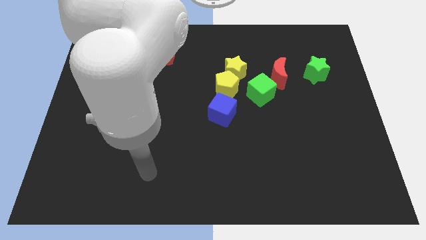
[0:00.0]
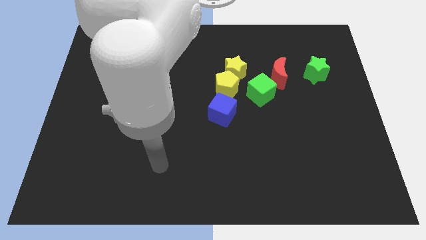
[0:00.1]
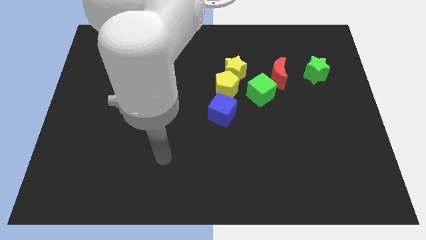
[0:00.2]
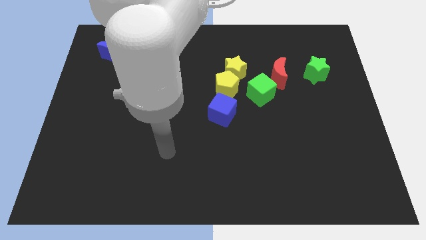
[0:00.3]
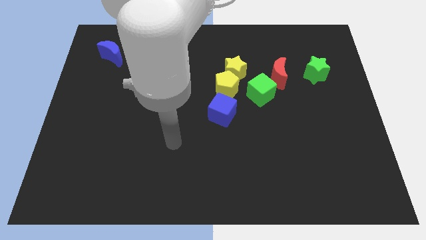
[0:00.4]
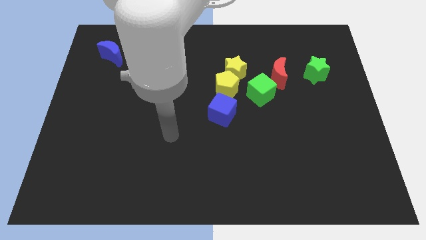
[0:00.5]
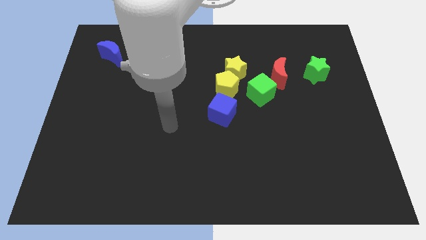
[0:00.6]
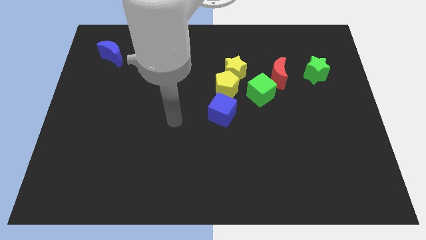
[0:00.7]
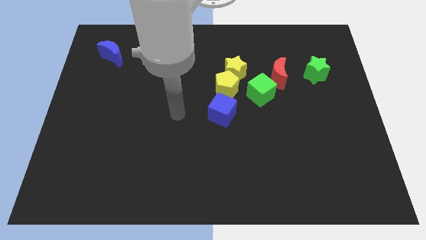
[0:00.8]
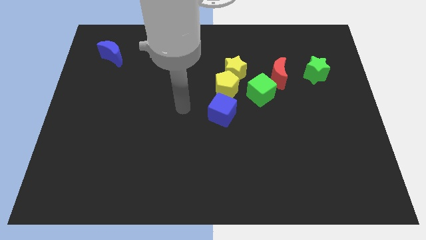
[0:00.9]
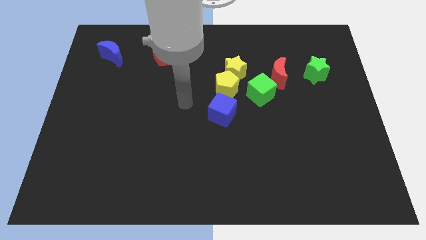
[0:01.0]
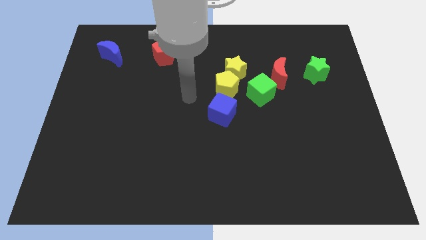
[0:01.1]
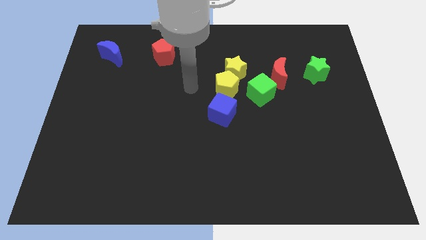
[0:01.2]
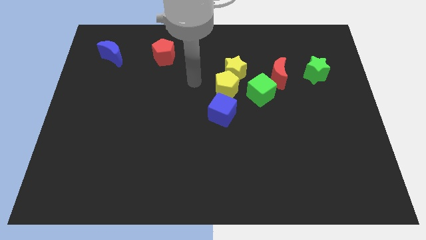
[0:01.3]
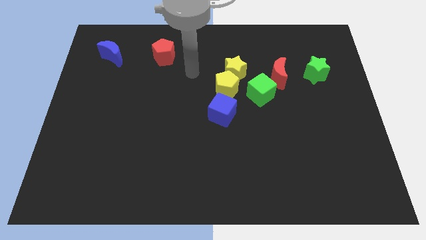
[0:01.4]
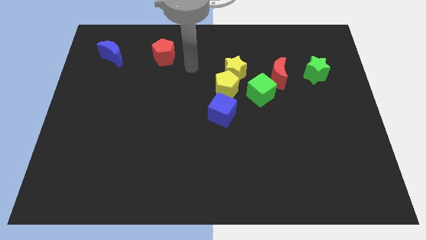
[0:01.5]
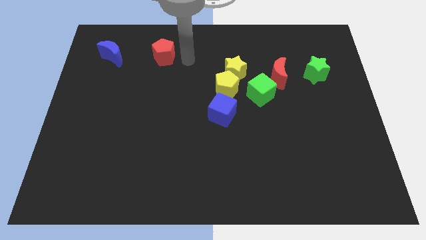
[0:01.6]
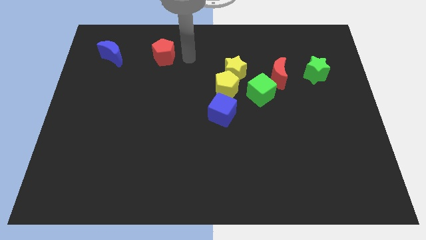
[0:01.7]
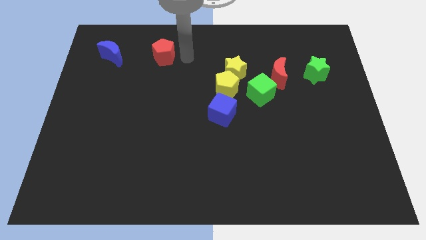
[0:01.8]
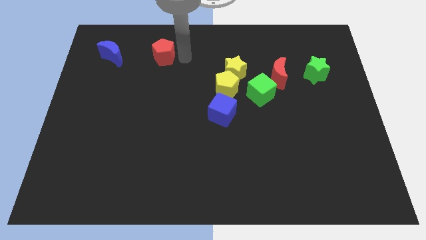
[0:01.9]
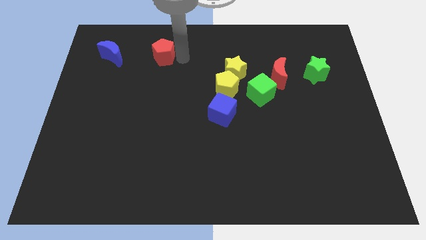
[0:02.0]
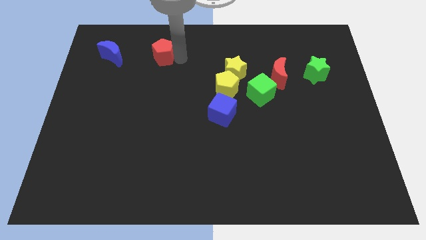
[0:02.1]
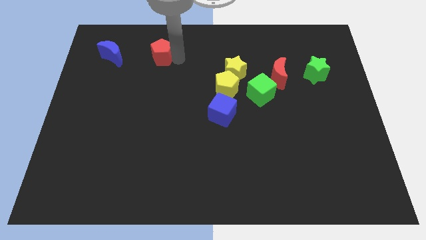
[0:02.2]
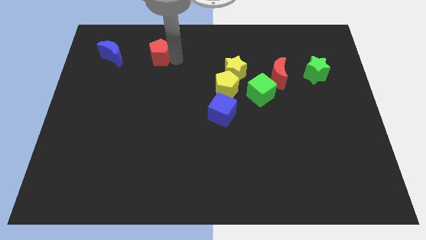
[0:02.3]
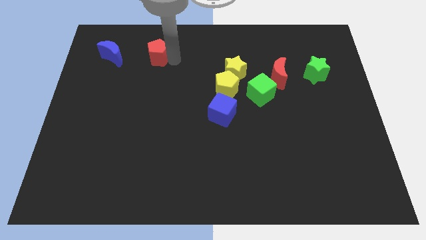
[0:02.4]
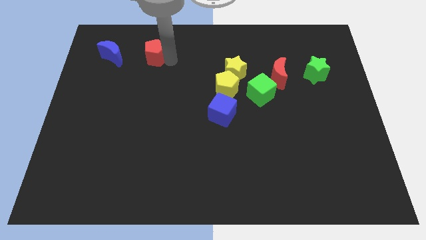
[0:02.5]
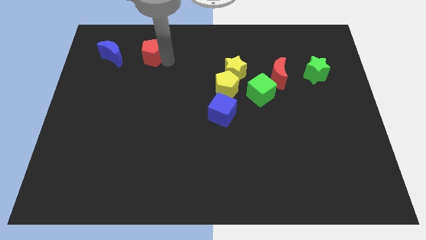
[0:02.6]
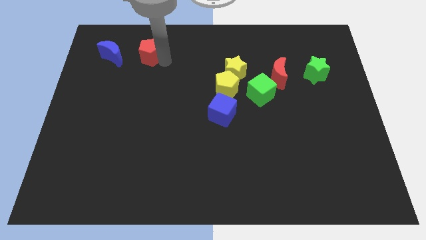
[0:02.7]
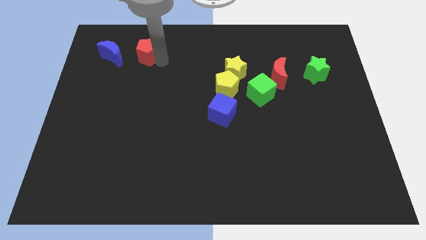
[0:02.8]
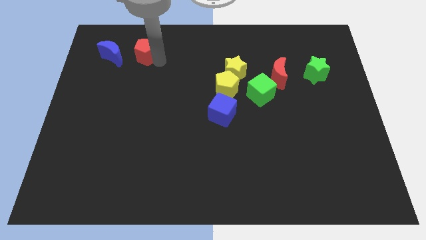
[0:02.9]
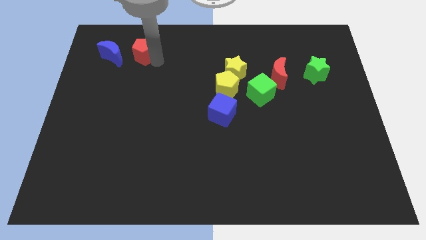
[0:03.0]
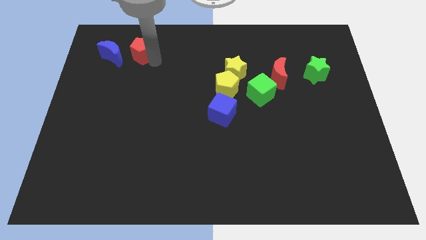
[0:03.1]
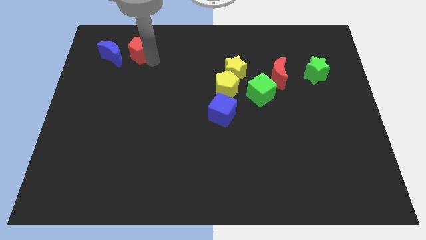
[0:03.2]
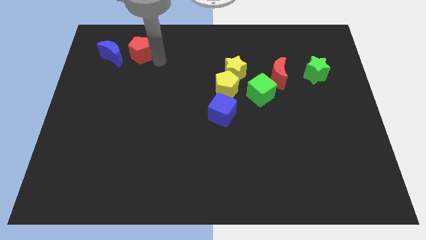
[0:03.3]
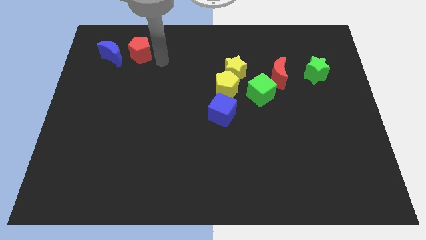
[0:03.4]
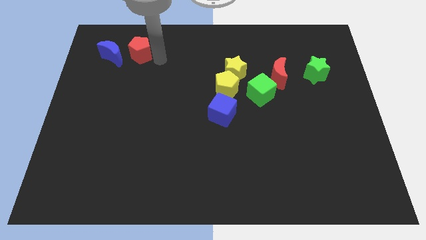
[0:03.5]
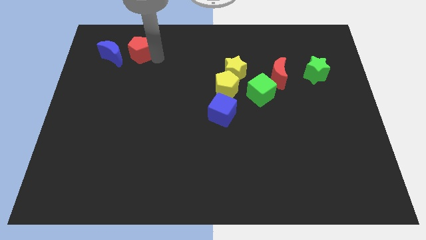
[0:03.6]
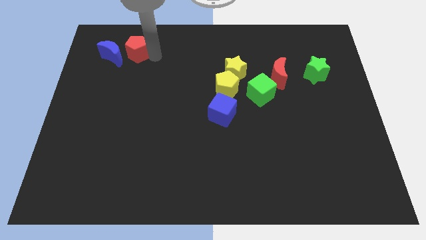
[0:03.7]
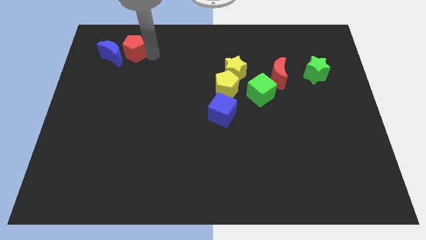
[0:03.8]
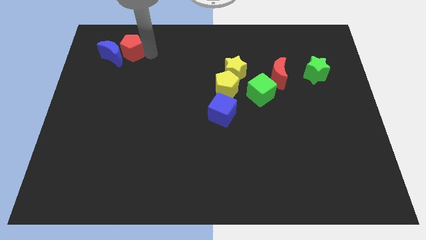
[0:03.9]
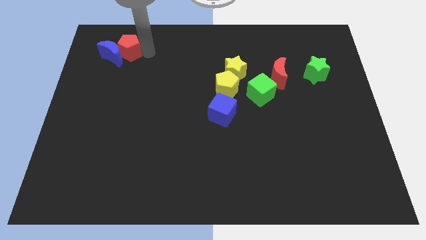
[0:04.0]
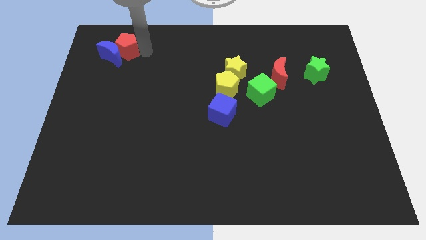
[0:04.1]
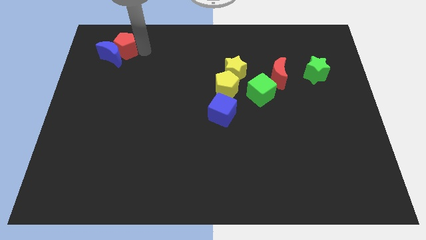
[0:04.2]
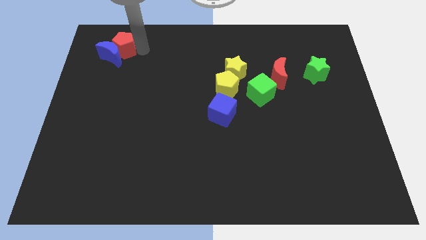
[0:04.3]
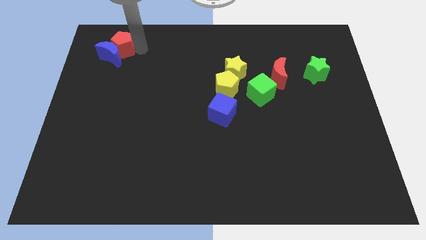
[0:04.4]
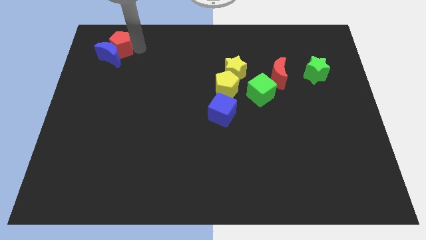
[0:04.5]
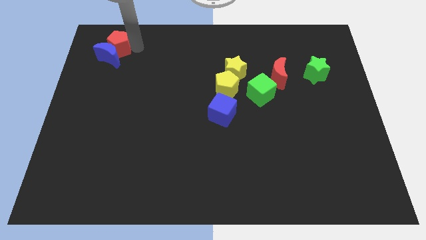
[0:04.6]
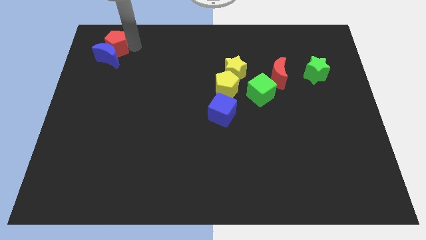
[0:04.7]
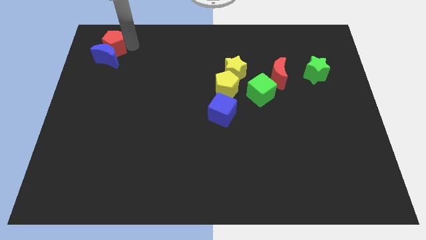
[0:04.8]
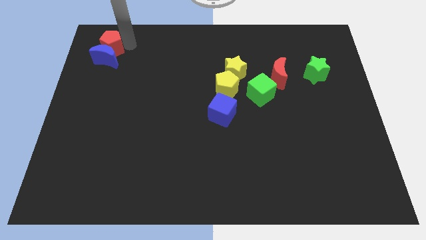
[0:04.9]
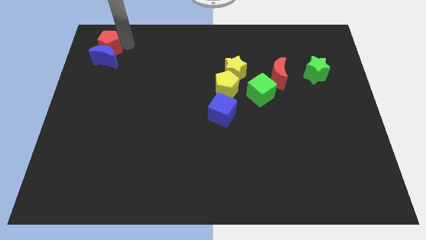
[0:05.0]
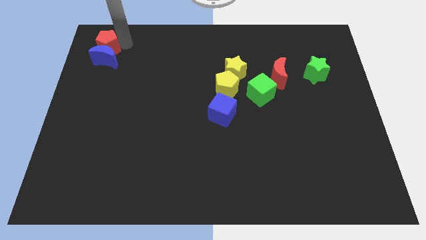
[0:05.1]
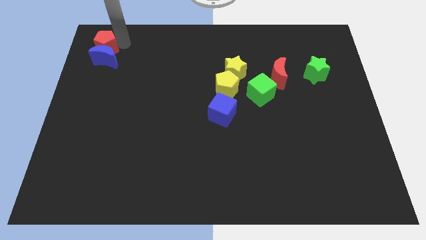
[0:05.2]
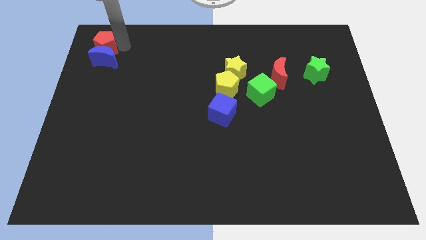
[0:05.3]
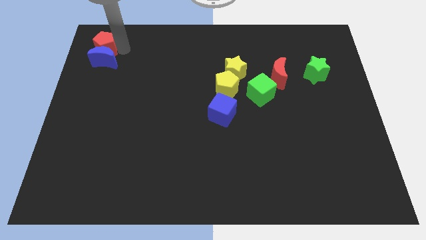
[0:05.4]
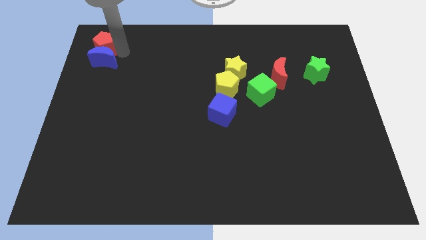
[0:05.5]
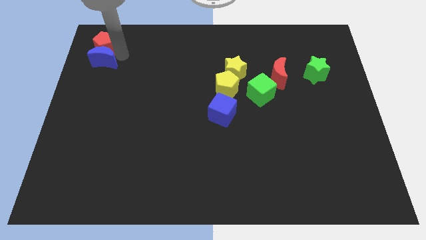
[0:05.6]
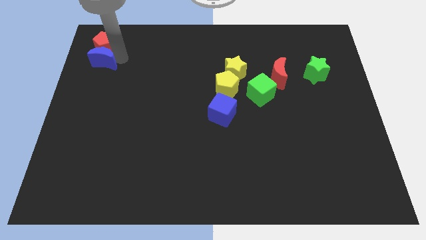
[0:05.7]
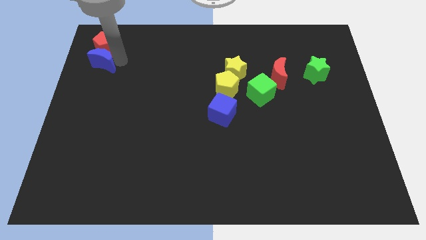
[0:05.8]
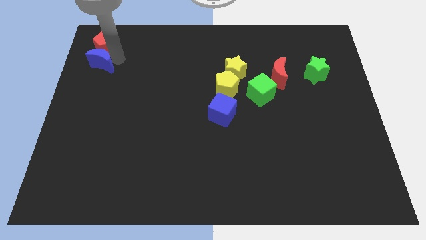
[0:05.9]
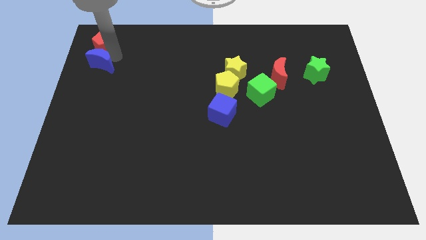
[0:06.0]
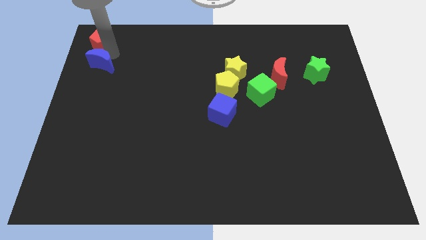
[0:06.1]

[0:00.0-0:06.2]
push the red pentagon to the top left
